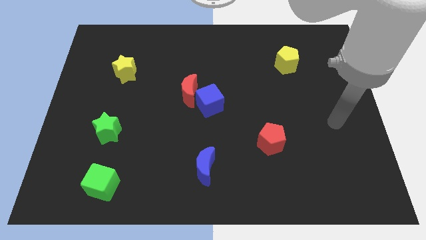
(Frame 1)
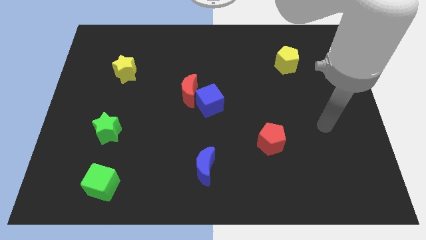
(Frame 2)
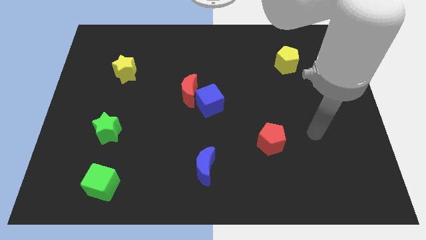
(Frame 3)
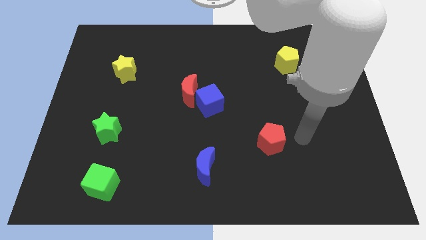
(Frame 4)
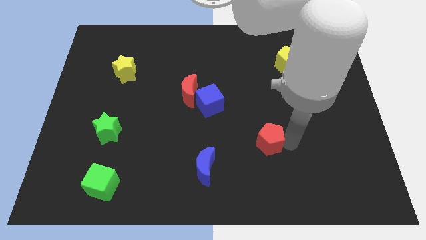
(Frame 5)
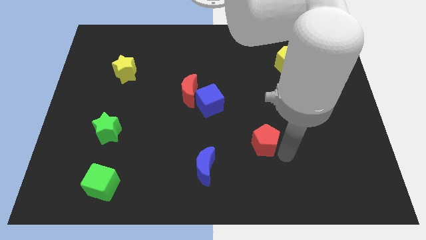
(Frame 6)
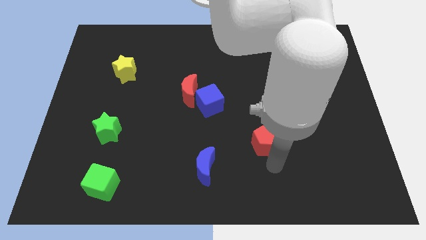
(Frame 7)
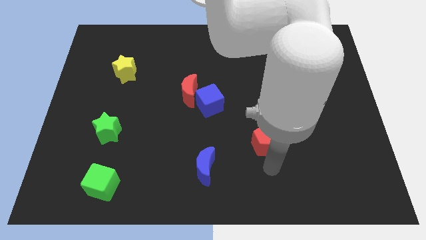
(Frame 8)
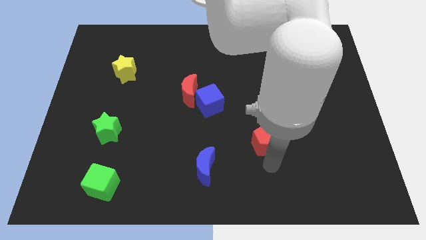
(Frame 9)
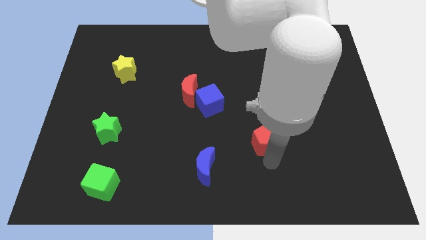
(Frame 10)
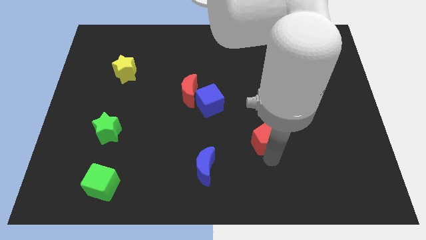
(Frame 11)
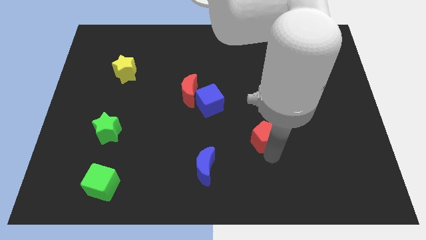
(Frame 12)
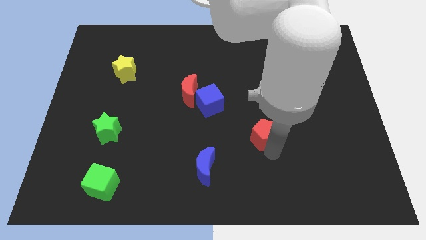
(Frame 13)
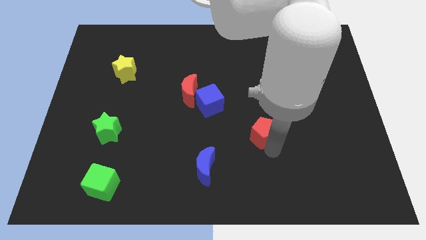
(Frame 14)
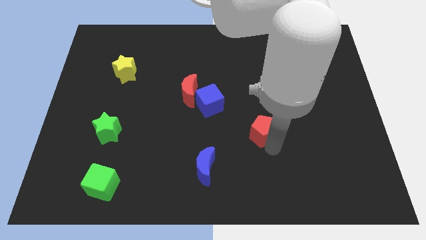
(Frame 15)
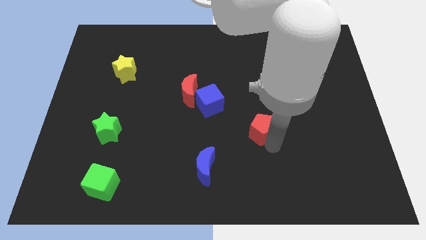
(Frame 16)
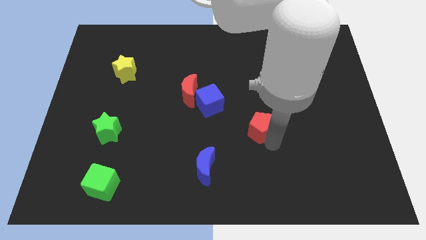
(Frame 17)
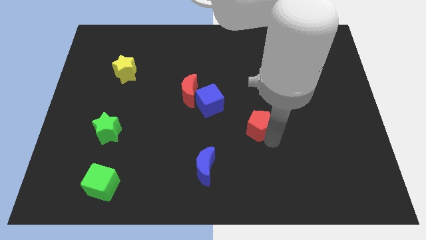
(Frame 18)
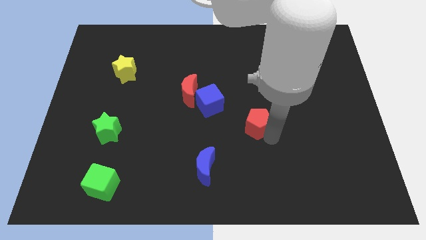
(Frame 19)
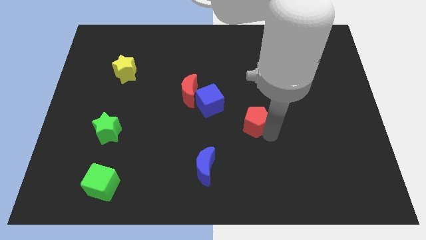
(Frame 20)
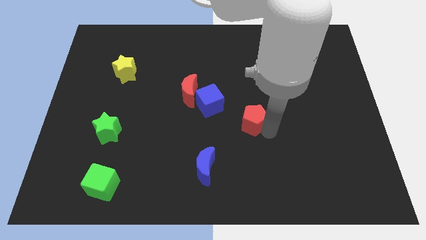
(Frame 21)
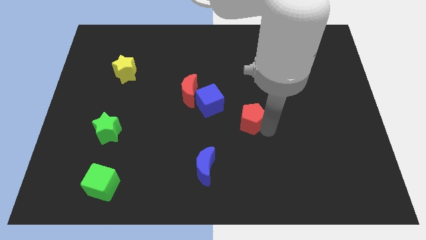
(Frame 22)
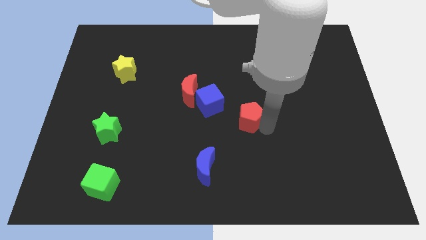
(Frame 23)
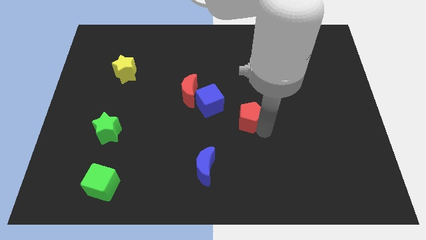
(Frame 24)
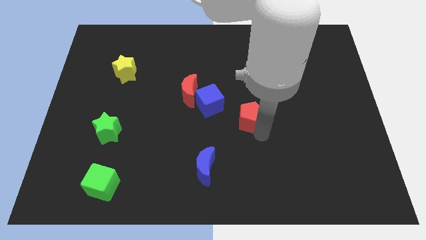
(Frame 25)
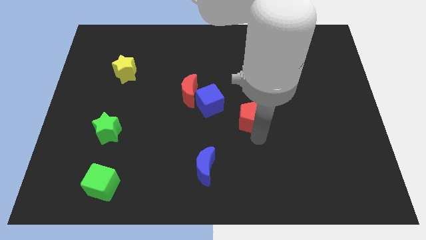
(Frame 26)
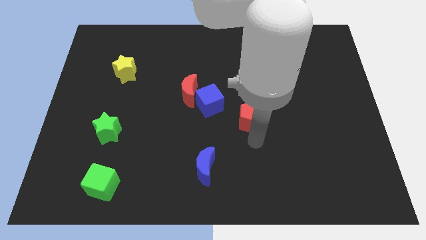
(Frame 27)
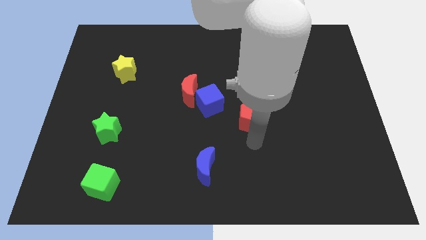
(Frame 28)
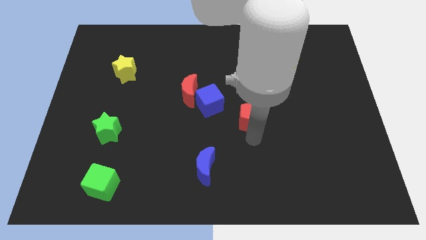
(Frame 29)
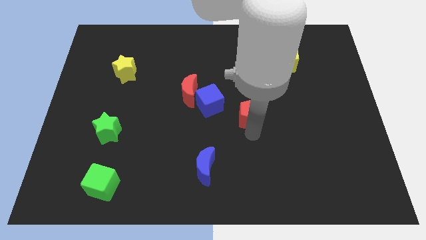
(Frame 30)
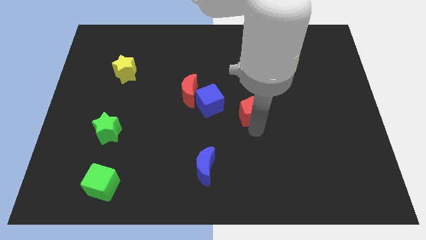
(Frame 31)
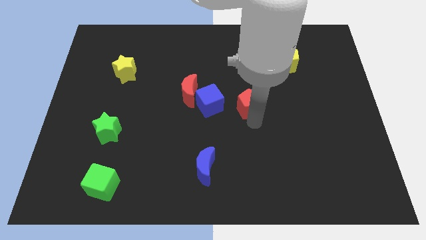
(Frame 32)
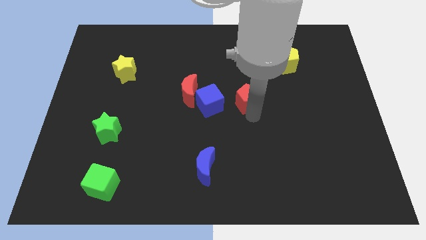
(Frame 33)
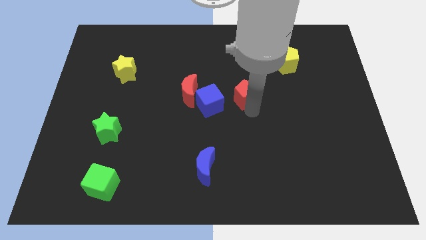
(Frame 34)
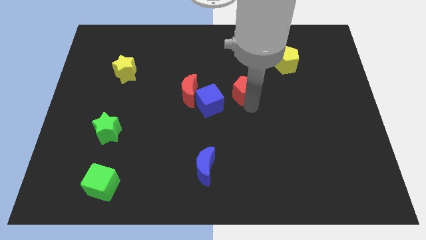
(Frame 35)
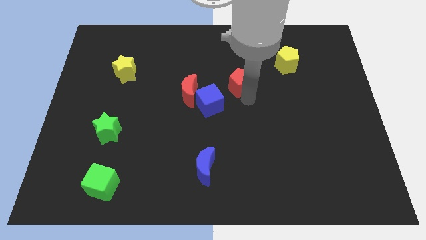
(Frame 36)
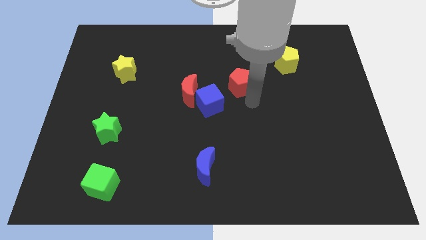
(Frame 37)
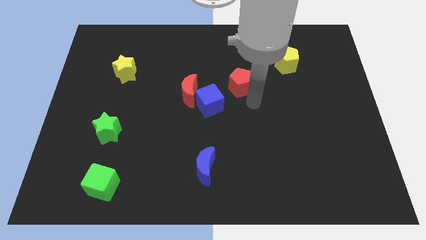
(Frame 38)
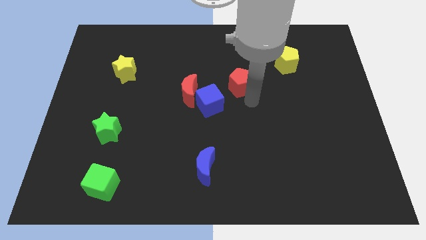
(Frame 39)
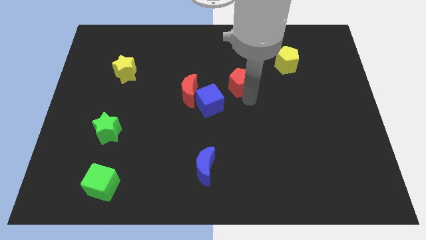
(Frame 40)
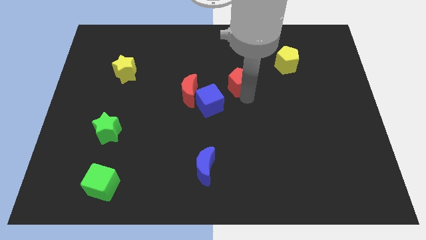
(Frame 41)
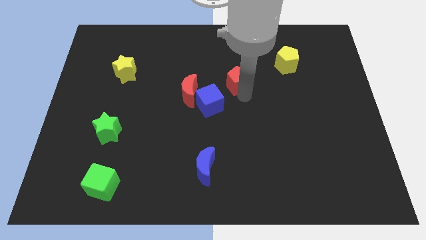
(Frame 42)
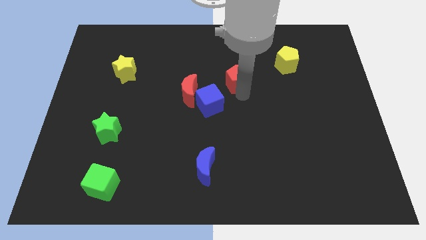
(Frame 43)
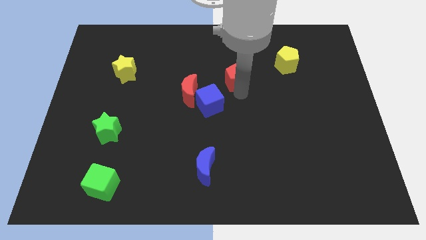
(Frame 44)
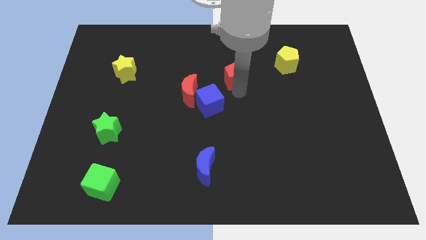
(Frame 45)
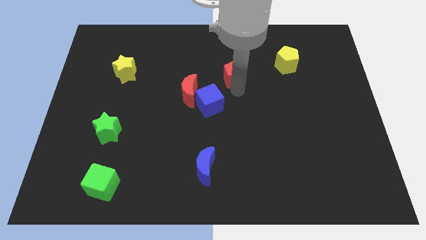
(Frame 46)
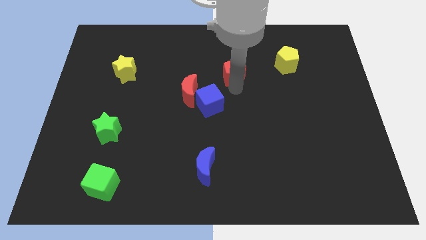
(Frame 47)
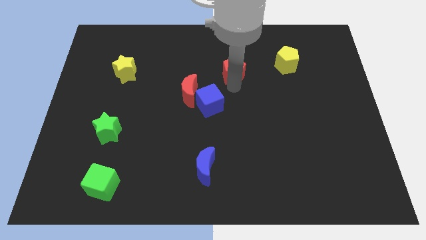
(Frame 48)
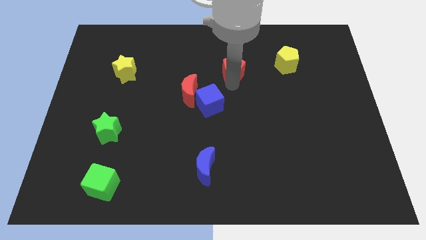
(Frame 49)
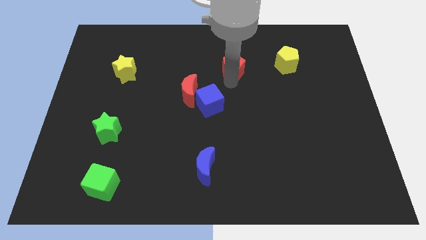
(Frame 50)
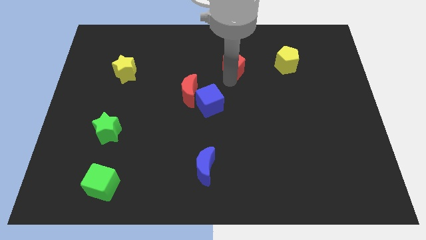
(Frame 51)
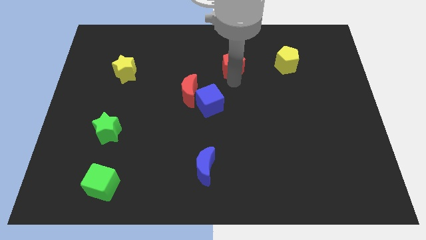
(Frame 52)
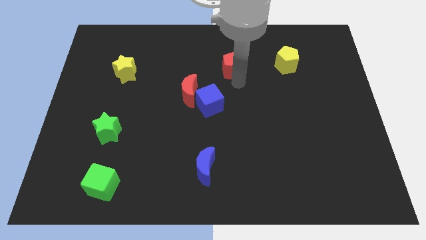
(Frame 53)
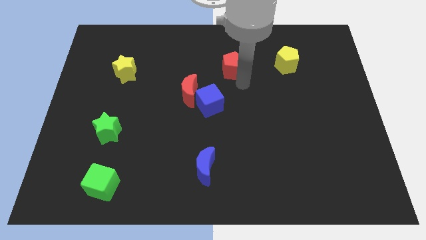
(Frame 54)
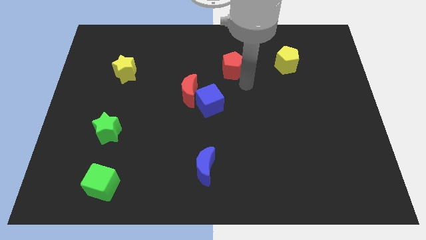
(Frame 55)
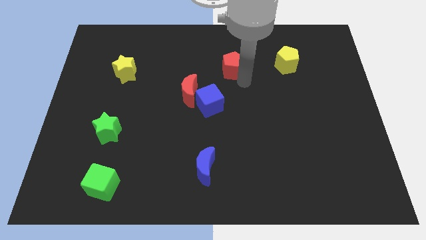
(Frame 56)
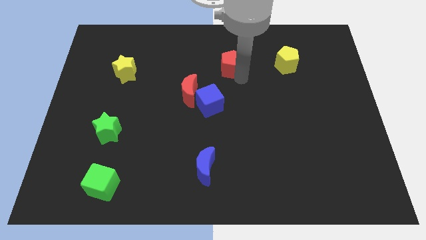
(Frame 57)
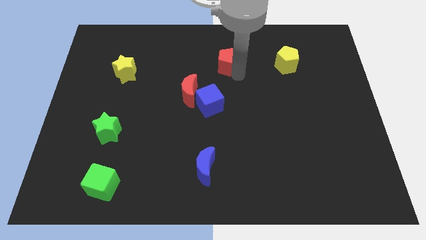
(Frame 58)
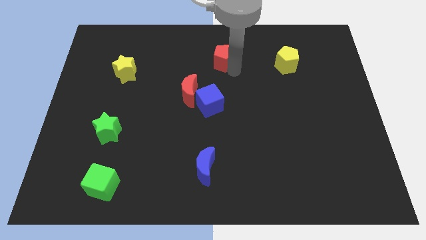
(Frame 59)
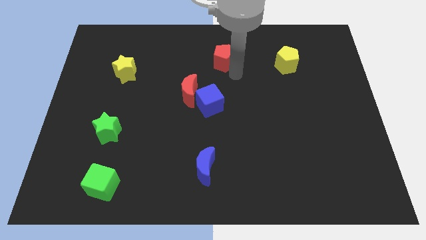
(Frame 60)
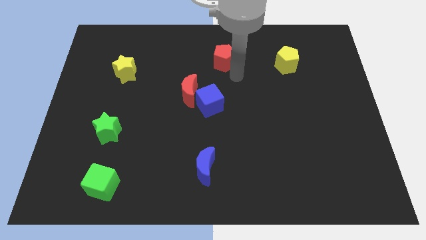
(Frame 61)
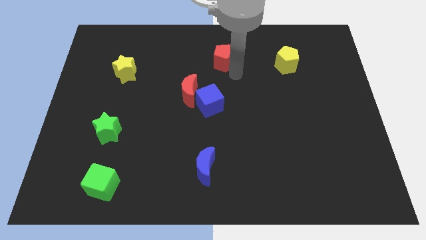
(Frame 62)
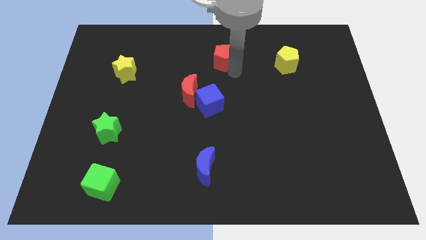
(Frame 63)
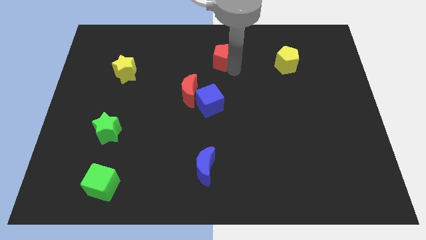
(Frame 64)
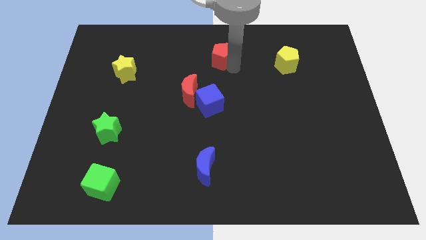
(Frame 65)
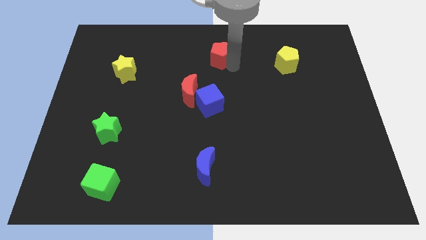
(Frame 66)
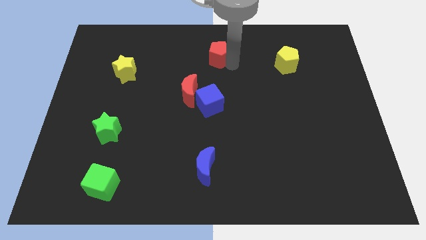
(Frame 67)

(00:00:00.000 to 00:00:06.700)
put the red pentagon to the towards your base

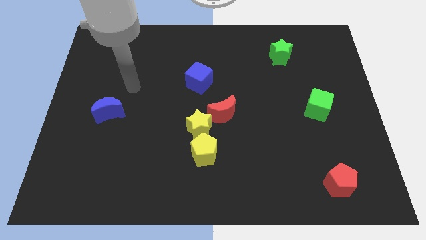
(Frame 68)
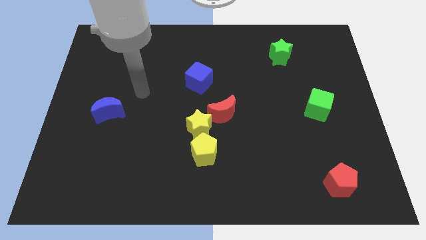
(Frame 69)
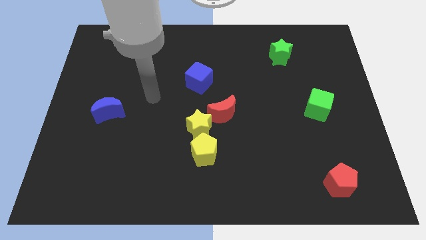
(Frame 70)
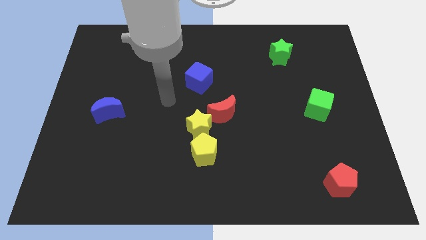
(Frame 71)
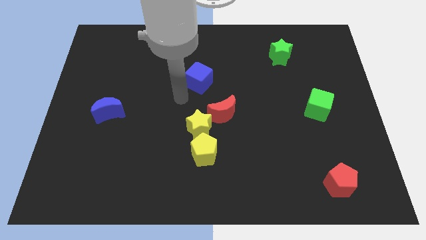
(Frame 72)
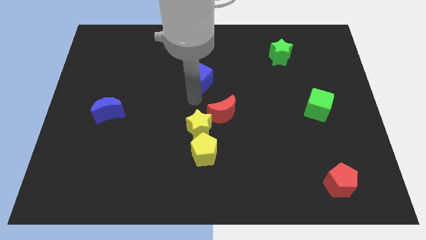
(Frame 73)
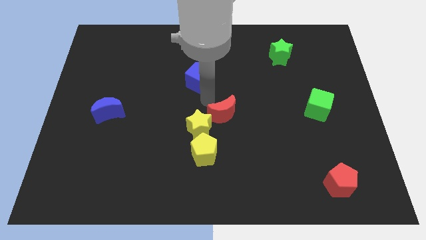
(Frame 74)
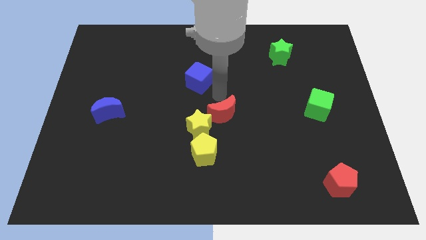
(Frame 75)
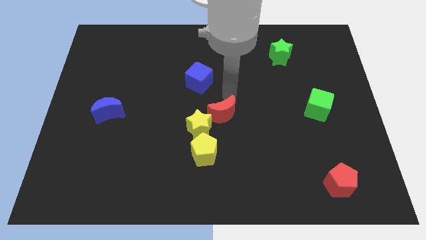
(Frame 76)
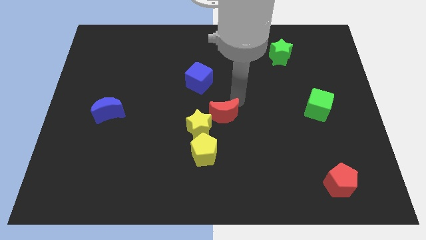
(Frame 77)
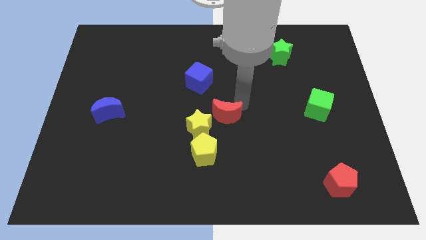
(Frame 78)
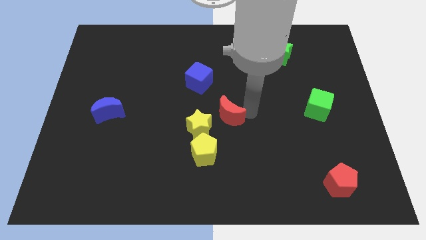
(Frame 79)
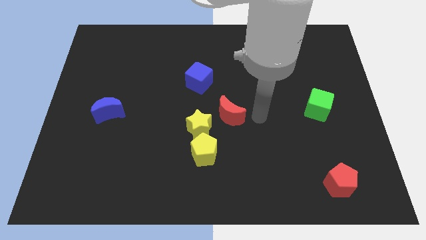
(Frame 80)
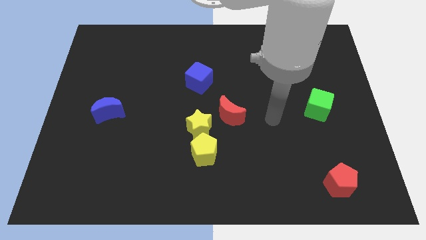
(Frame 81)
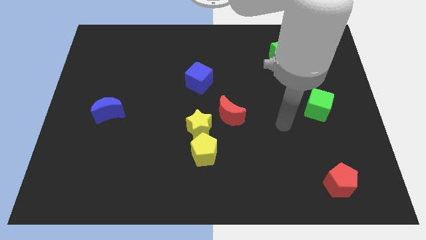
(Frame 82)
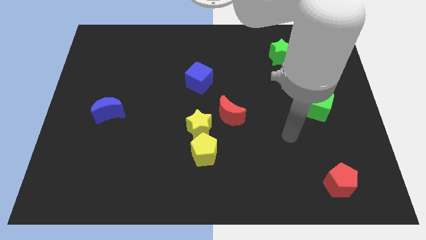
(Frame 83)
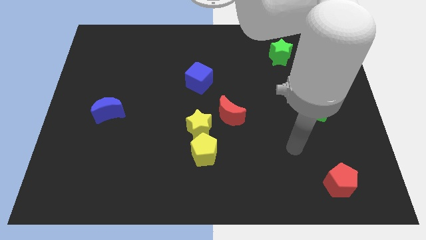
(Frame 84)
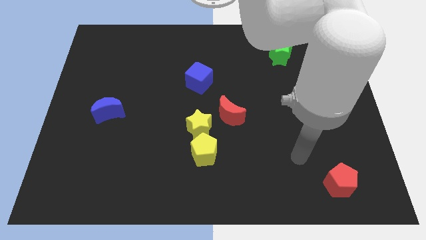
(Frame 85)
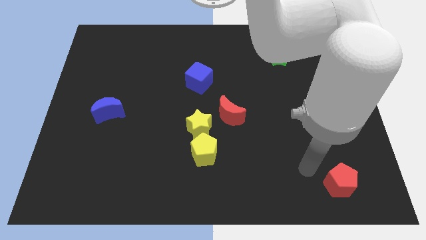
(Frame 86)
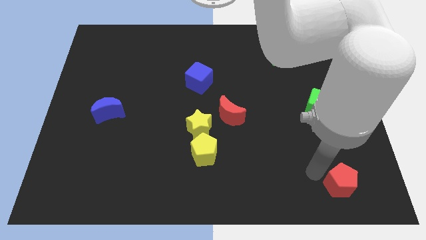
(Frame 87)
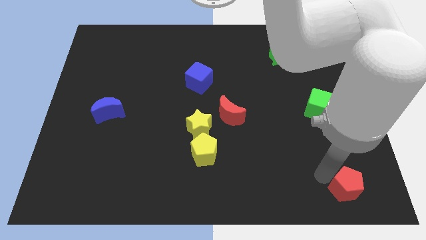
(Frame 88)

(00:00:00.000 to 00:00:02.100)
slide the red pentagon to the lower right corner
